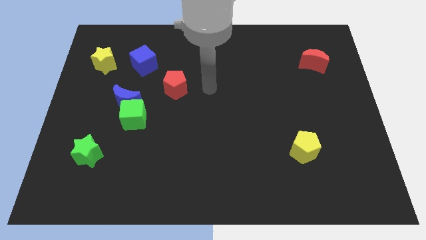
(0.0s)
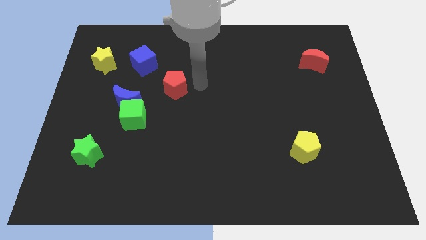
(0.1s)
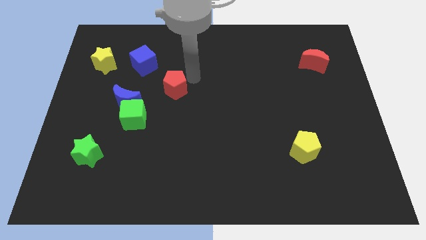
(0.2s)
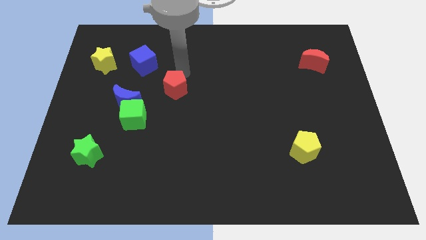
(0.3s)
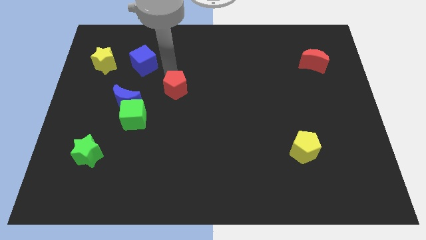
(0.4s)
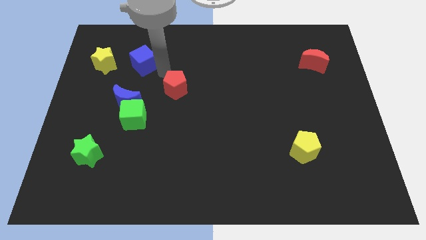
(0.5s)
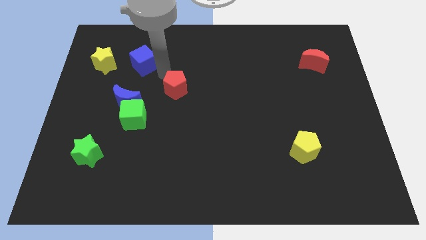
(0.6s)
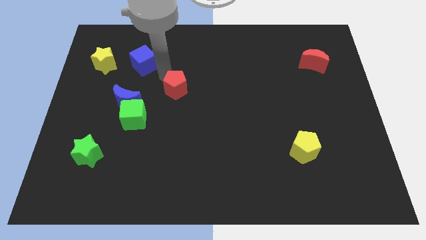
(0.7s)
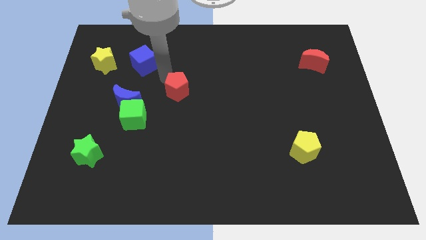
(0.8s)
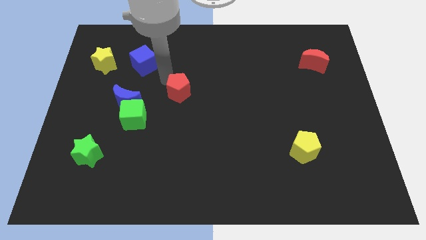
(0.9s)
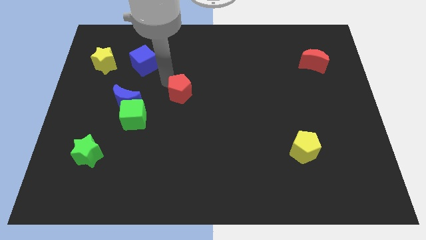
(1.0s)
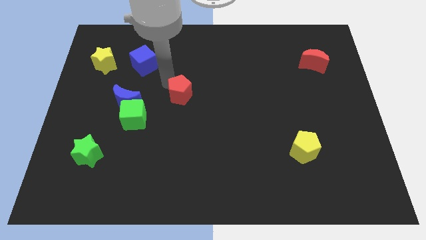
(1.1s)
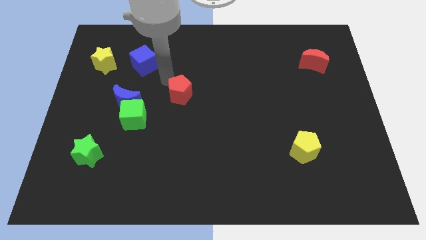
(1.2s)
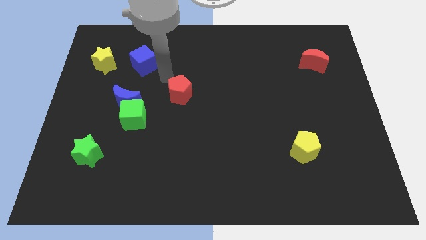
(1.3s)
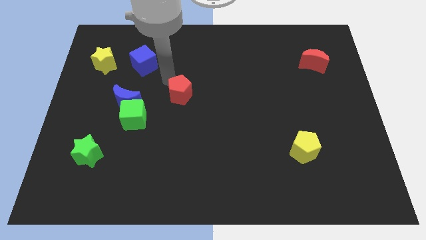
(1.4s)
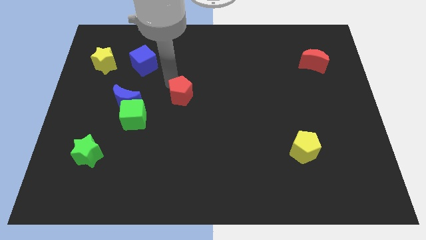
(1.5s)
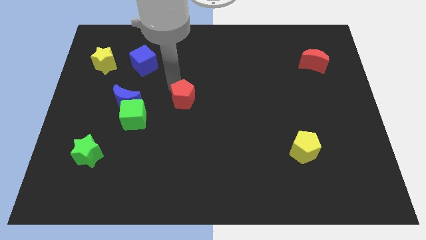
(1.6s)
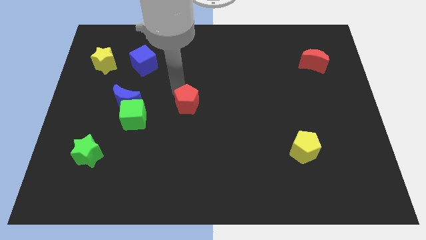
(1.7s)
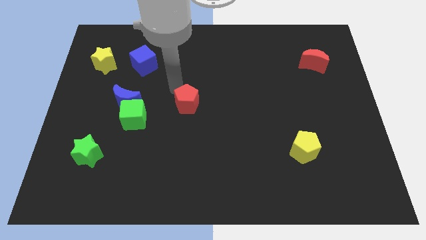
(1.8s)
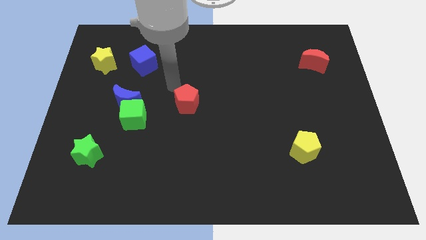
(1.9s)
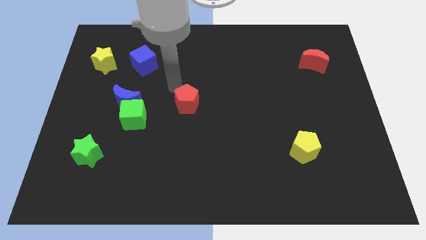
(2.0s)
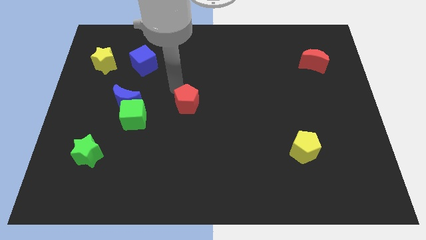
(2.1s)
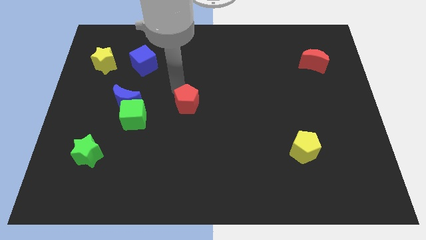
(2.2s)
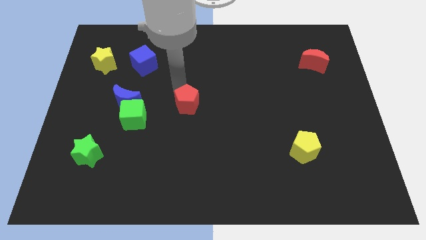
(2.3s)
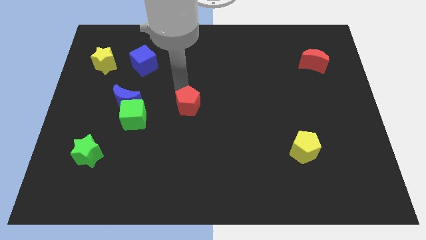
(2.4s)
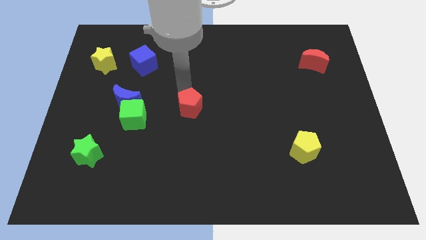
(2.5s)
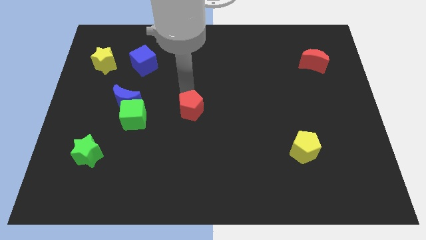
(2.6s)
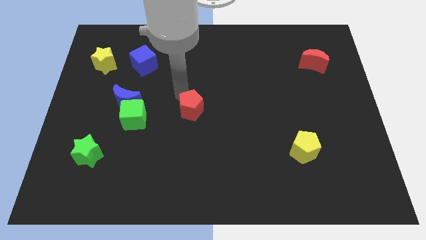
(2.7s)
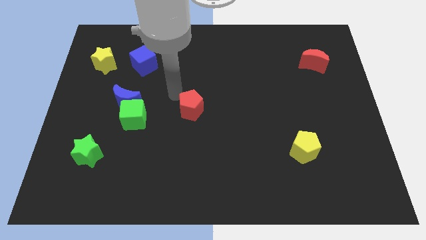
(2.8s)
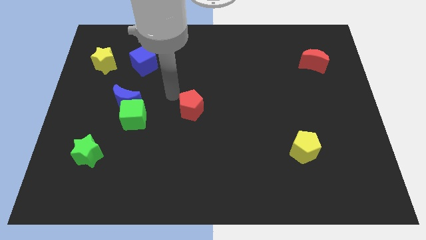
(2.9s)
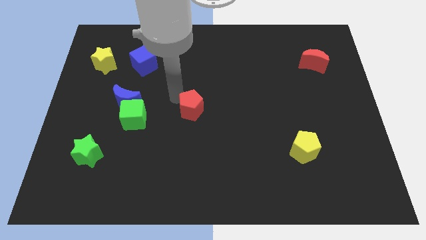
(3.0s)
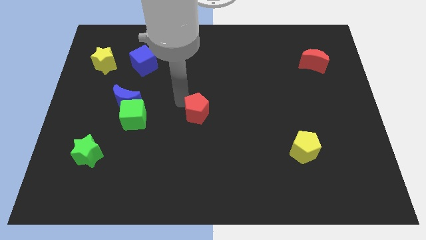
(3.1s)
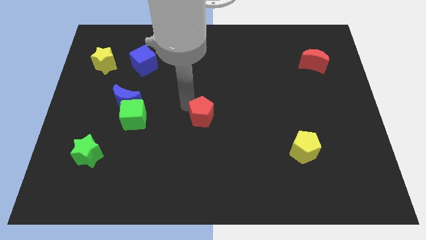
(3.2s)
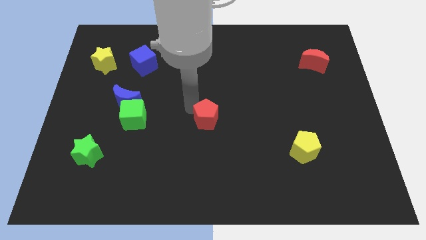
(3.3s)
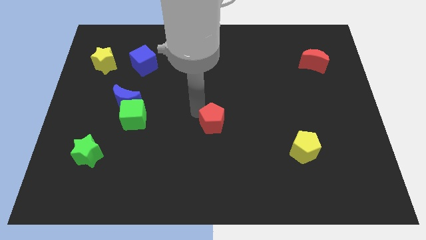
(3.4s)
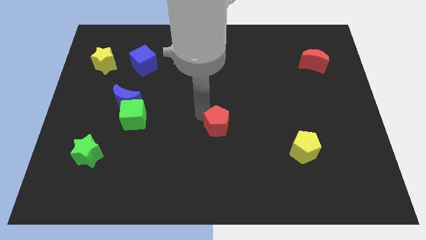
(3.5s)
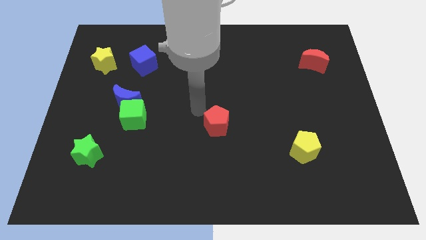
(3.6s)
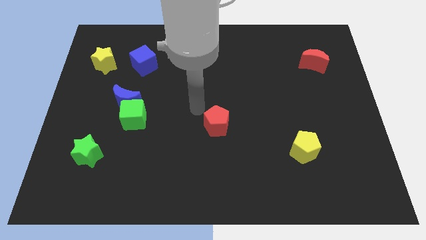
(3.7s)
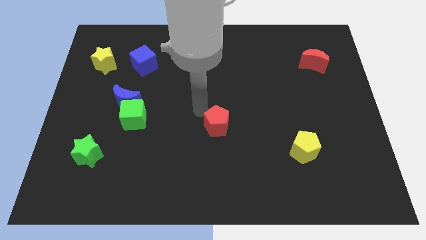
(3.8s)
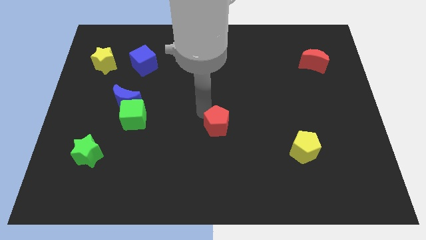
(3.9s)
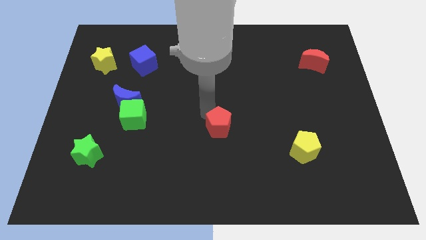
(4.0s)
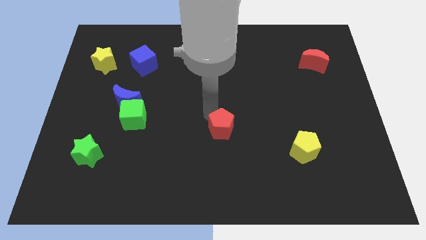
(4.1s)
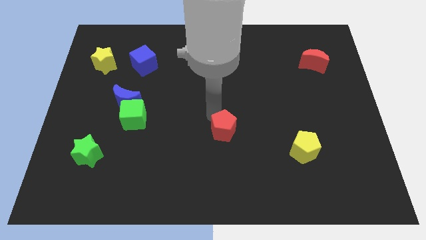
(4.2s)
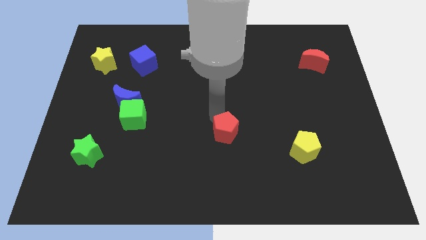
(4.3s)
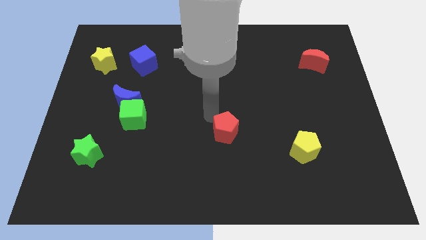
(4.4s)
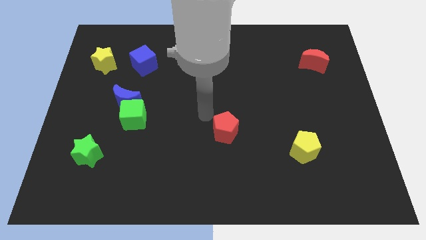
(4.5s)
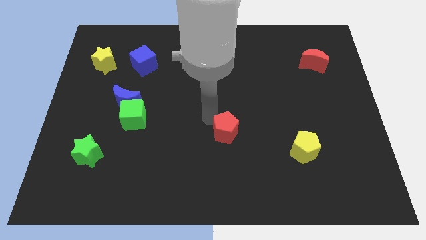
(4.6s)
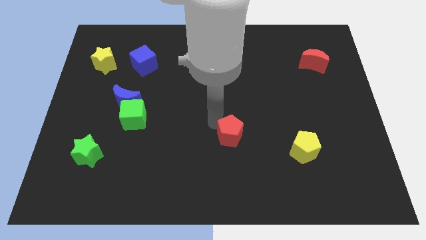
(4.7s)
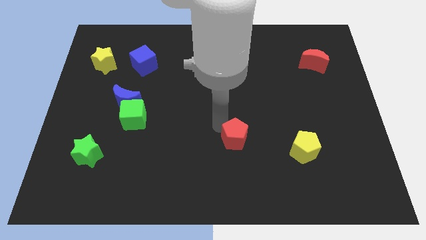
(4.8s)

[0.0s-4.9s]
move the red pentagon down and then right

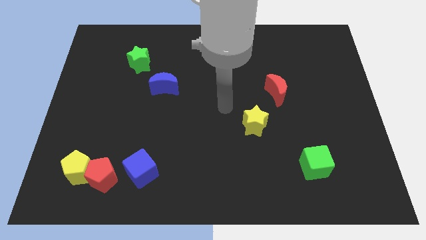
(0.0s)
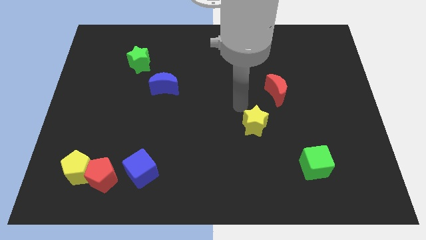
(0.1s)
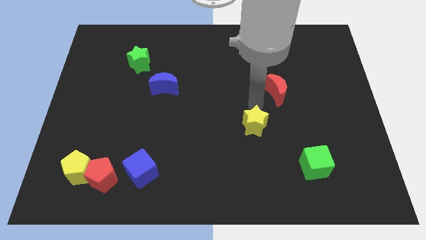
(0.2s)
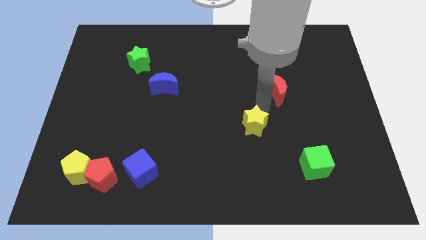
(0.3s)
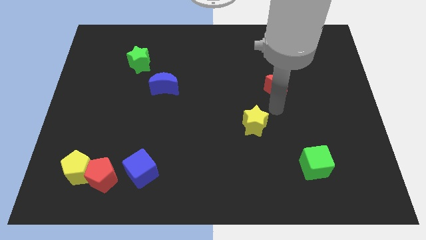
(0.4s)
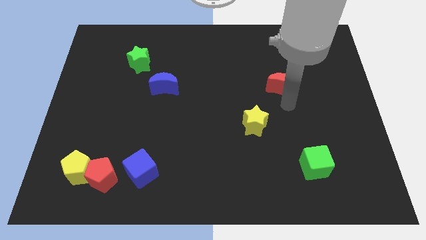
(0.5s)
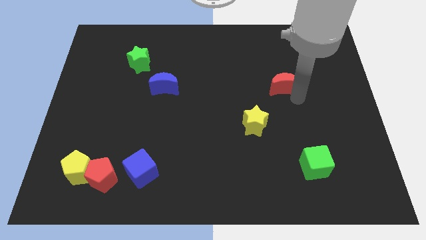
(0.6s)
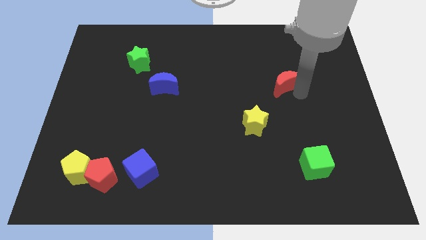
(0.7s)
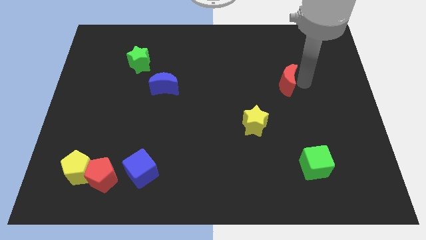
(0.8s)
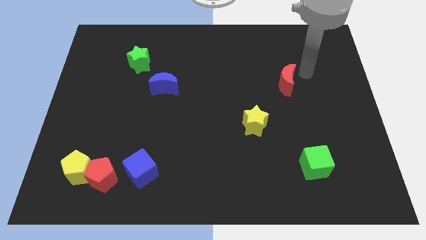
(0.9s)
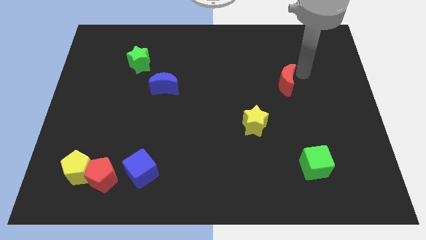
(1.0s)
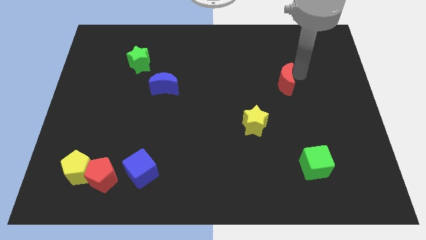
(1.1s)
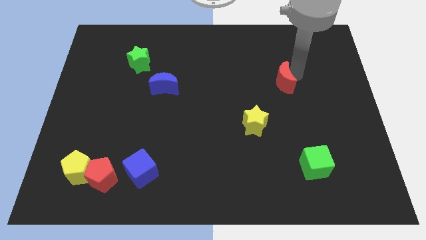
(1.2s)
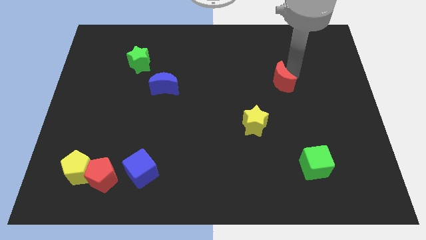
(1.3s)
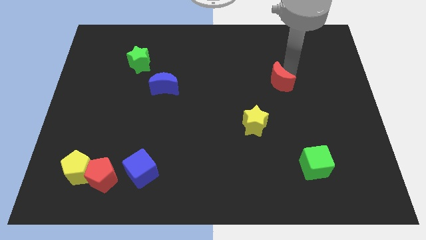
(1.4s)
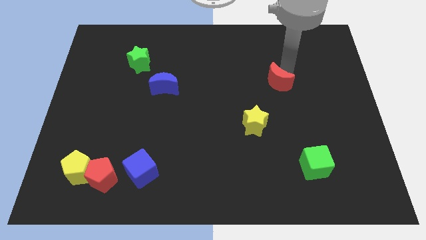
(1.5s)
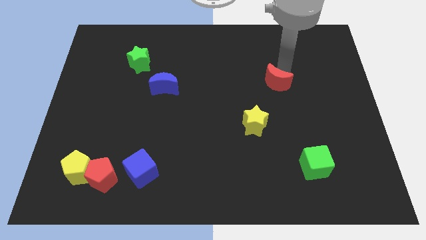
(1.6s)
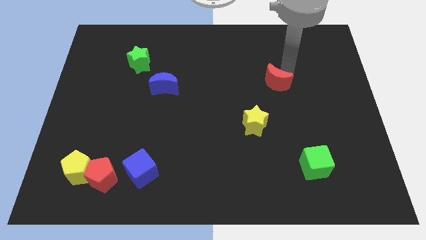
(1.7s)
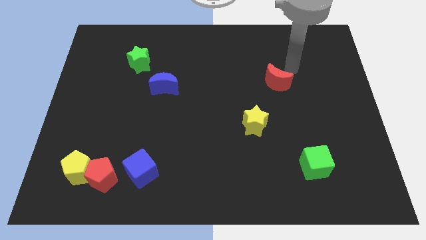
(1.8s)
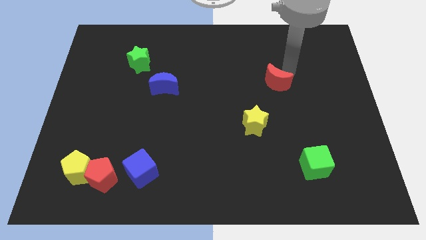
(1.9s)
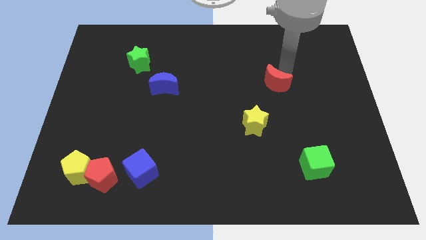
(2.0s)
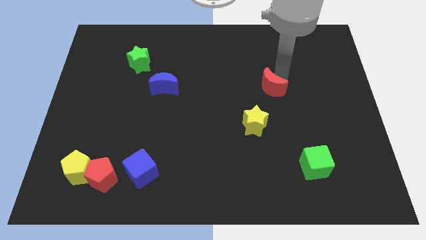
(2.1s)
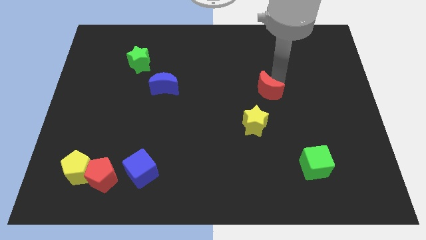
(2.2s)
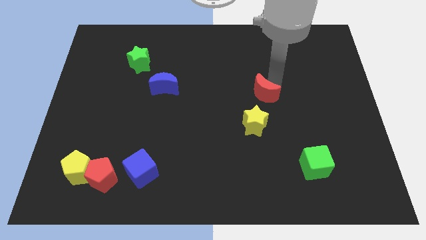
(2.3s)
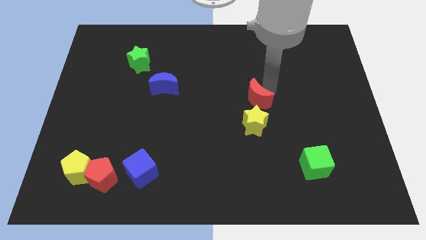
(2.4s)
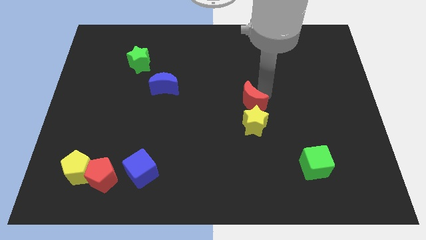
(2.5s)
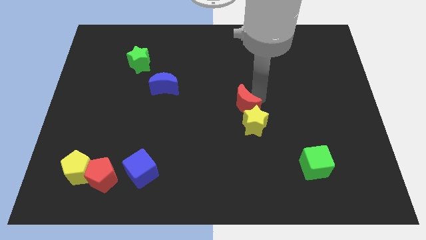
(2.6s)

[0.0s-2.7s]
push the red moon somewhat diagonally down and to the left

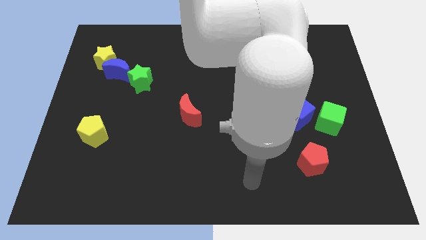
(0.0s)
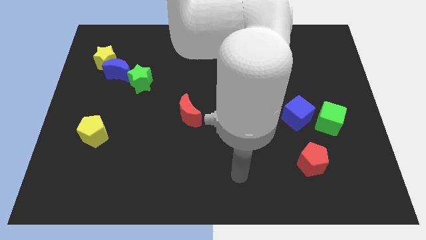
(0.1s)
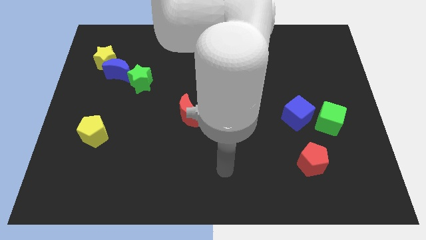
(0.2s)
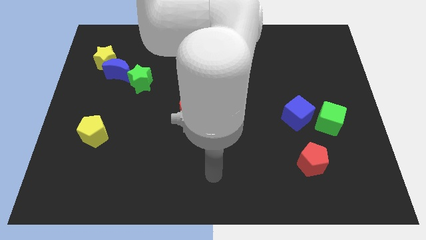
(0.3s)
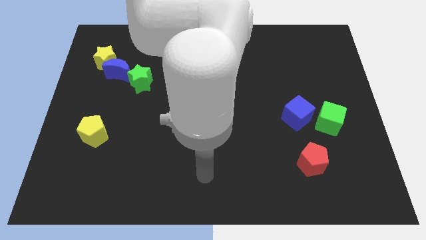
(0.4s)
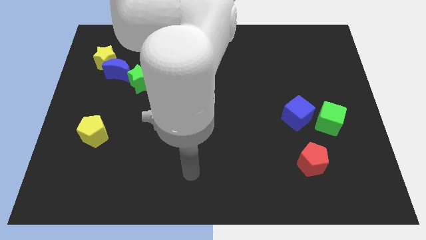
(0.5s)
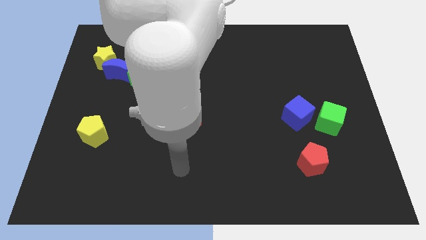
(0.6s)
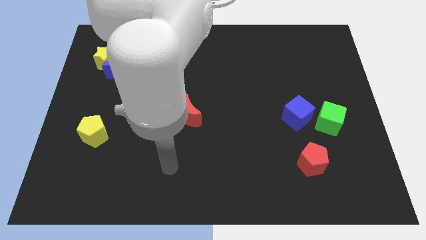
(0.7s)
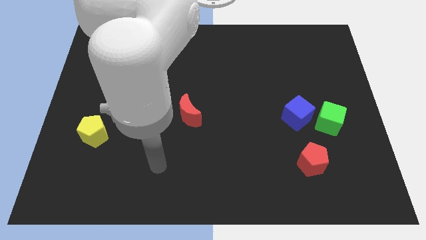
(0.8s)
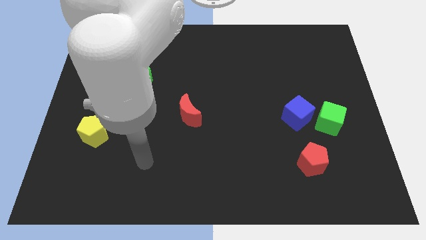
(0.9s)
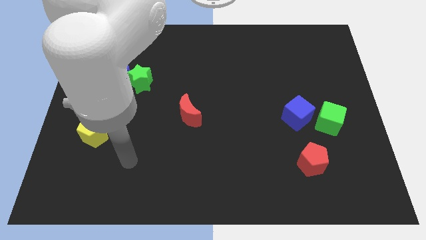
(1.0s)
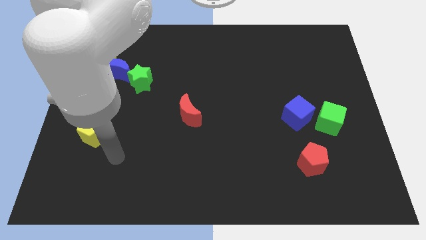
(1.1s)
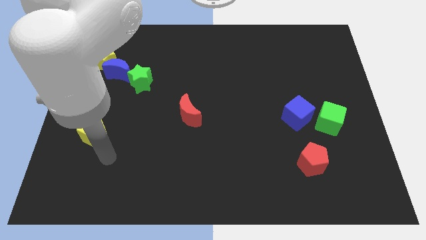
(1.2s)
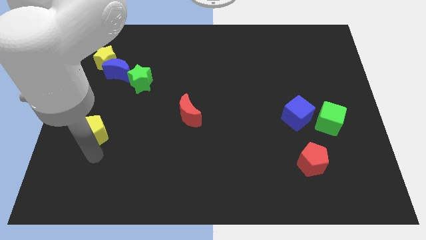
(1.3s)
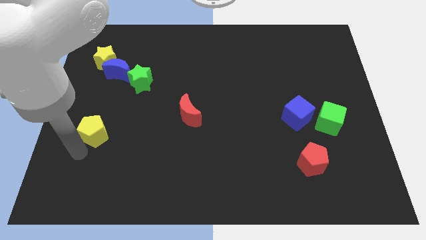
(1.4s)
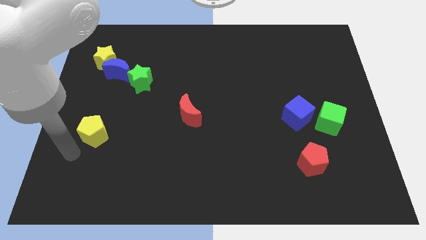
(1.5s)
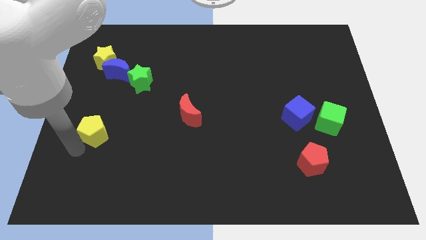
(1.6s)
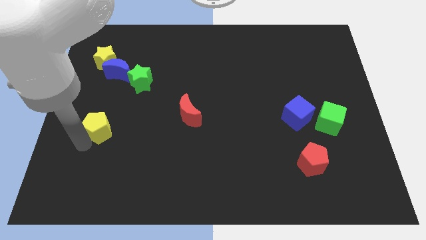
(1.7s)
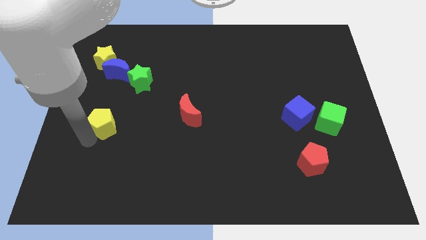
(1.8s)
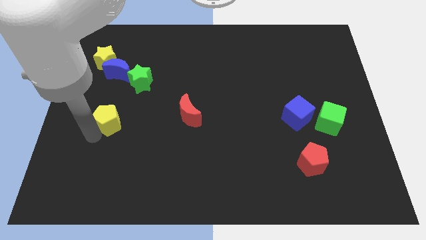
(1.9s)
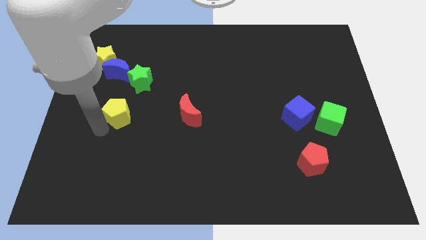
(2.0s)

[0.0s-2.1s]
slightly move the yellow pentagon diagonally up and right
